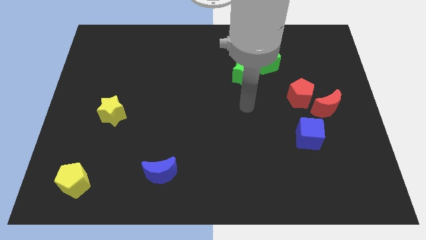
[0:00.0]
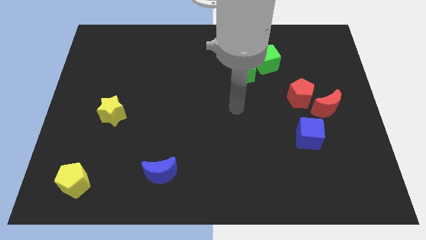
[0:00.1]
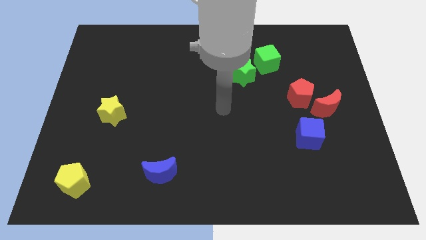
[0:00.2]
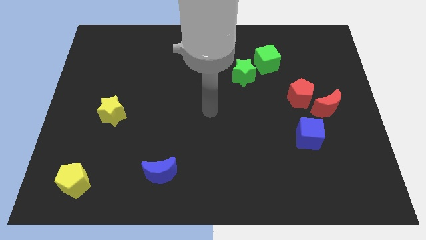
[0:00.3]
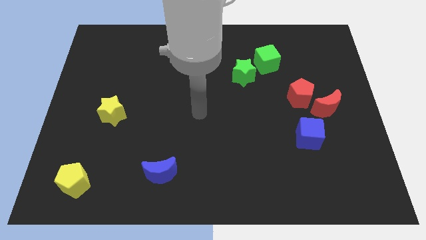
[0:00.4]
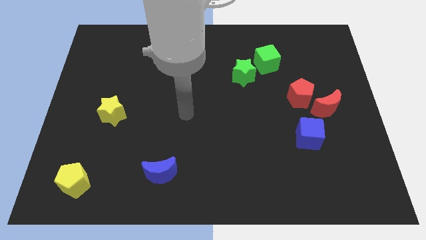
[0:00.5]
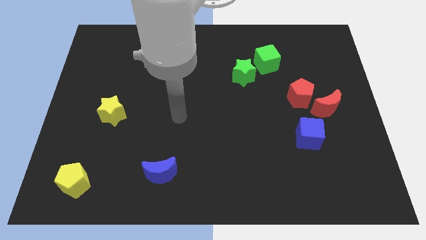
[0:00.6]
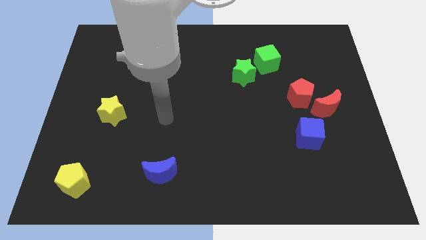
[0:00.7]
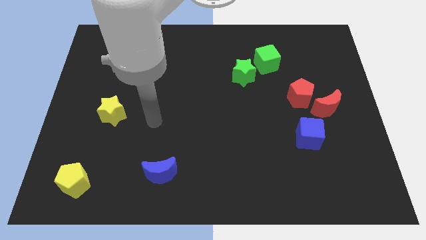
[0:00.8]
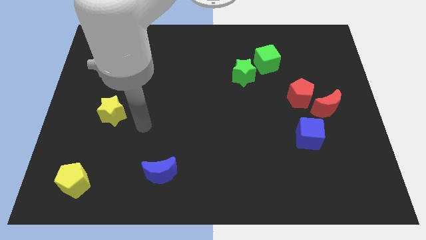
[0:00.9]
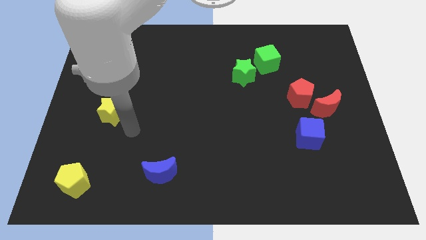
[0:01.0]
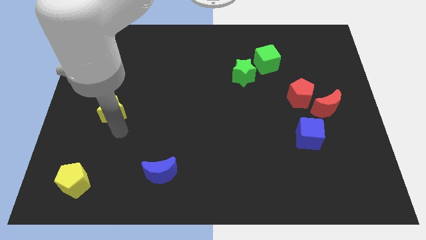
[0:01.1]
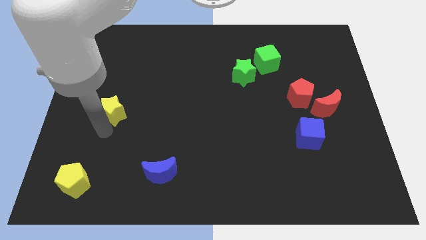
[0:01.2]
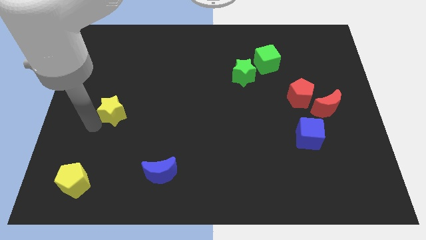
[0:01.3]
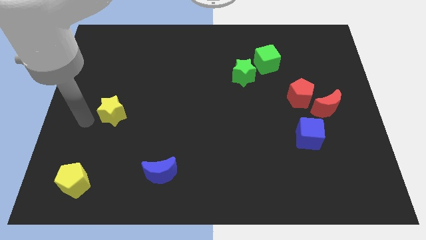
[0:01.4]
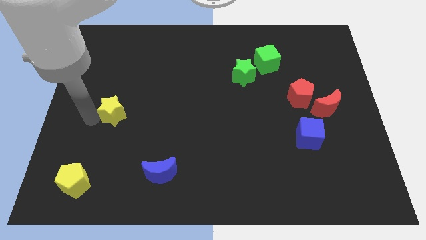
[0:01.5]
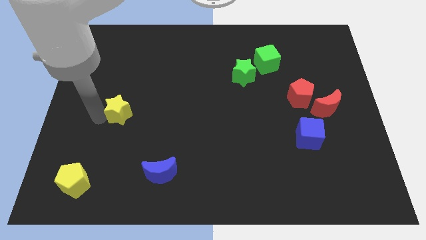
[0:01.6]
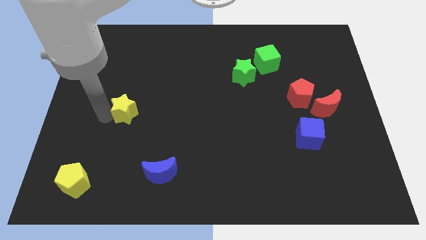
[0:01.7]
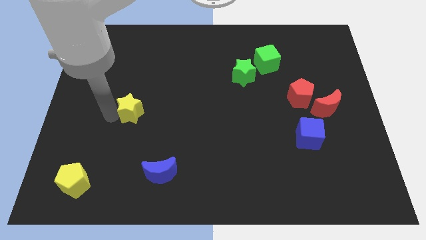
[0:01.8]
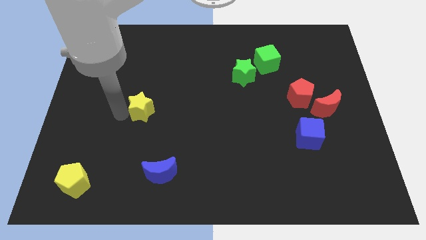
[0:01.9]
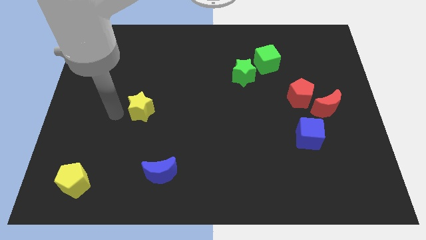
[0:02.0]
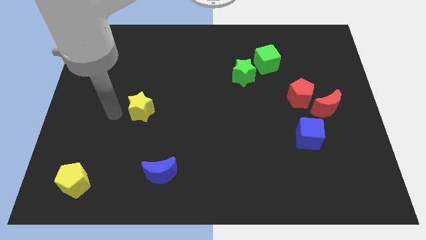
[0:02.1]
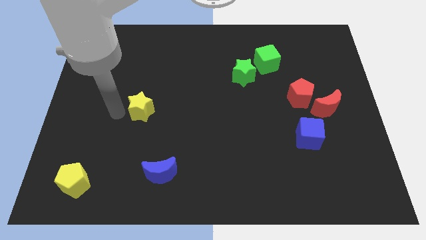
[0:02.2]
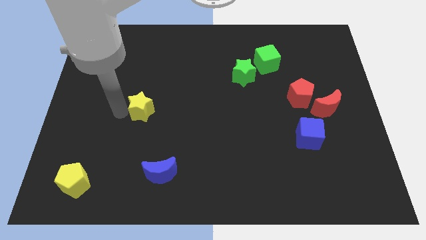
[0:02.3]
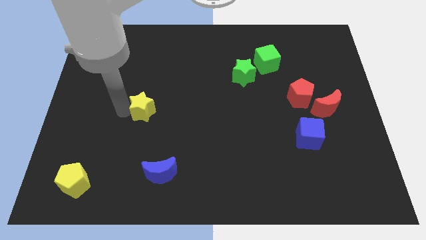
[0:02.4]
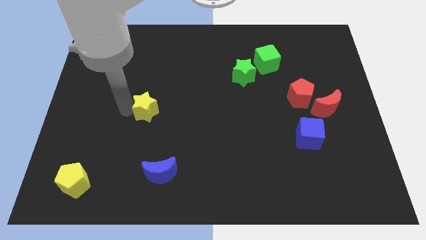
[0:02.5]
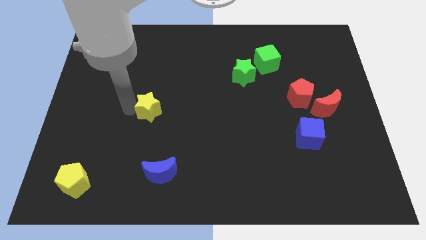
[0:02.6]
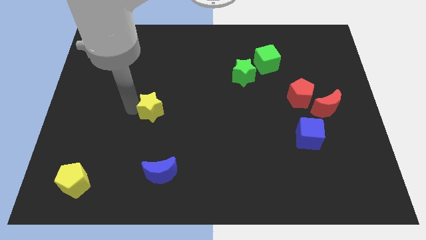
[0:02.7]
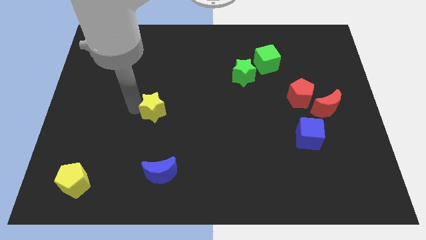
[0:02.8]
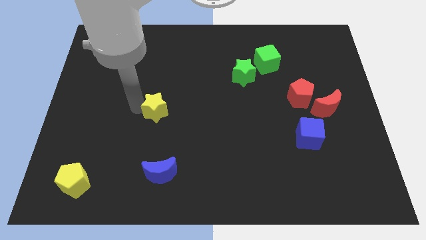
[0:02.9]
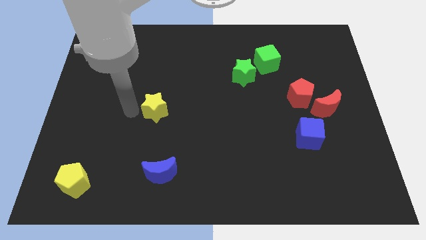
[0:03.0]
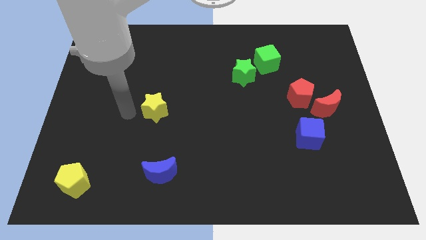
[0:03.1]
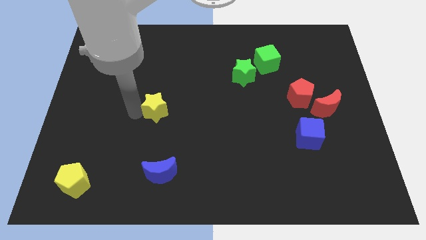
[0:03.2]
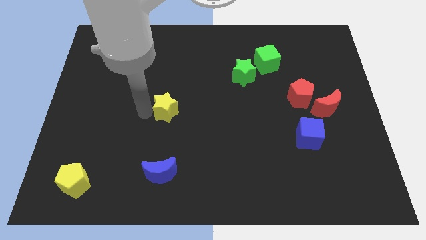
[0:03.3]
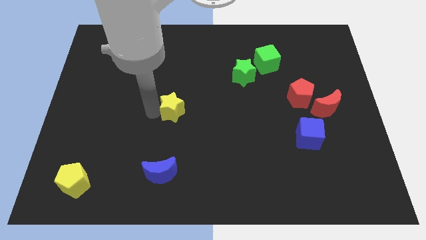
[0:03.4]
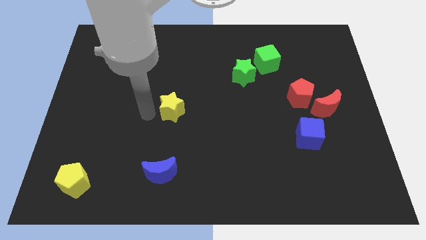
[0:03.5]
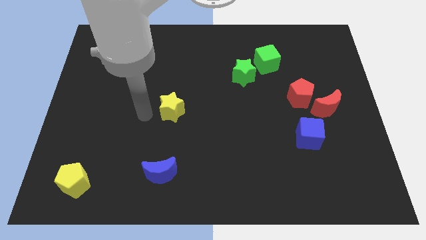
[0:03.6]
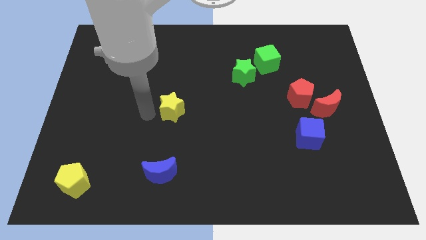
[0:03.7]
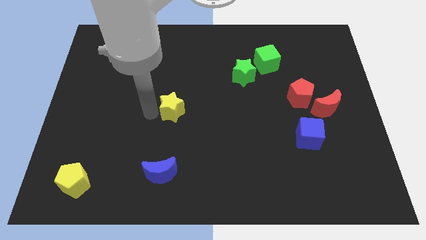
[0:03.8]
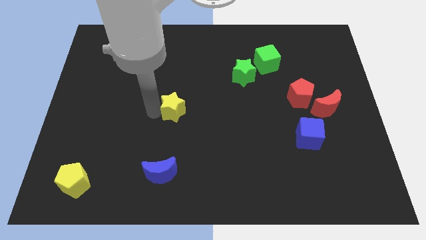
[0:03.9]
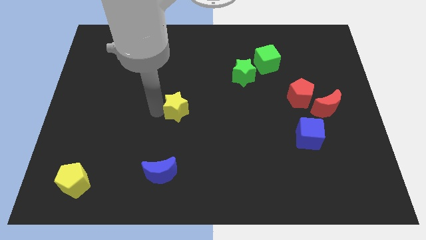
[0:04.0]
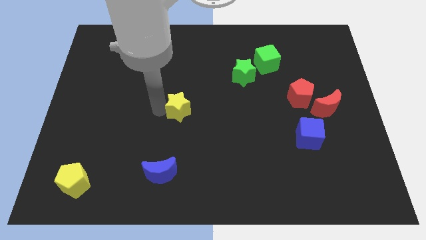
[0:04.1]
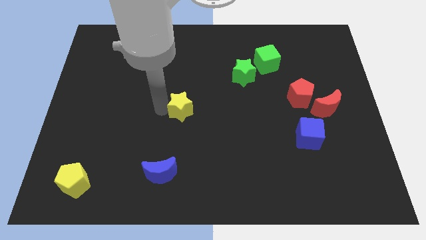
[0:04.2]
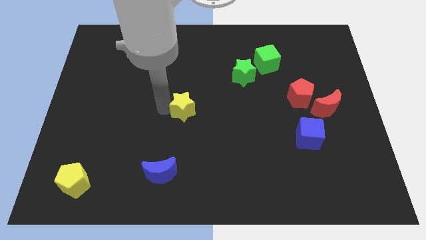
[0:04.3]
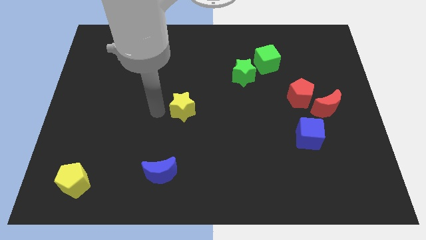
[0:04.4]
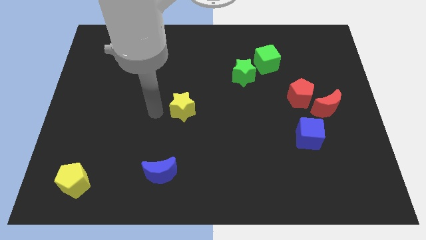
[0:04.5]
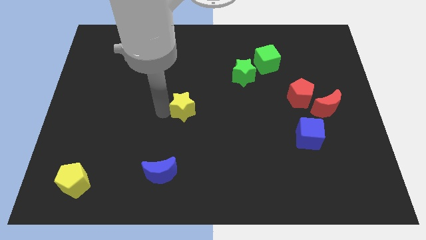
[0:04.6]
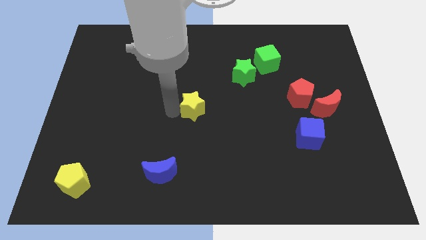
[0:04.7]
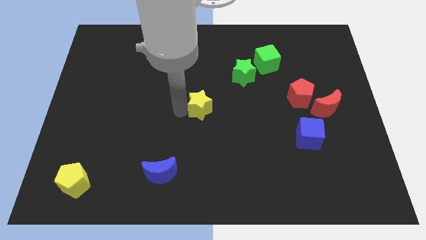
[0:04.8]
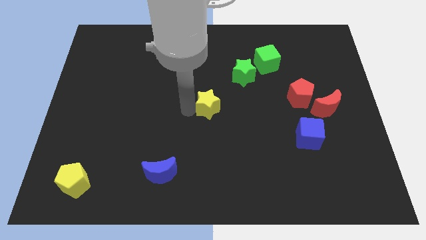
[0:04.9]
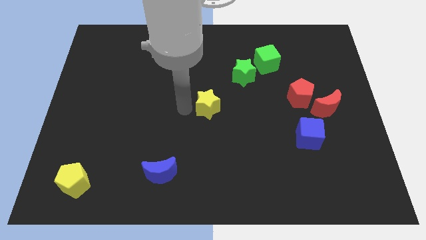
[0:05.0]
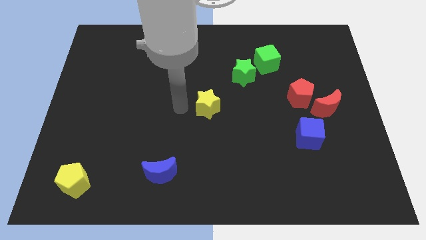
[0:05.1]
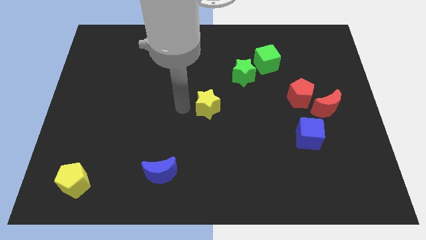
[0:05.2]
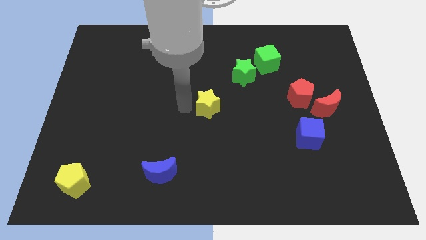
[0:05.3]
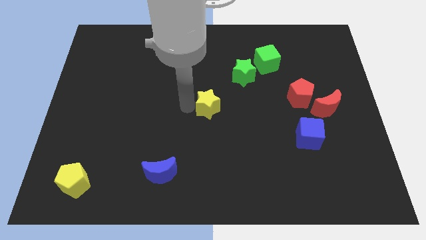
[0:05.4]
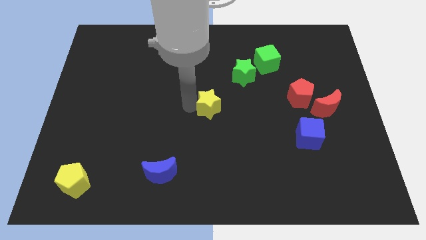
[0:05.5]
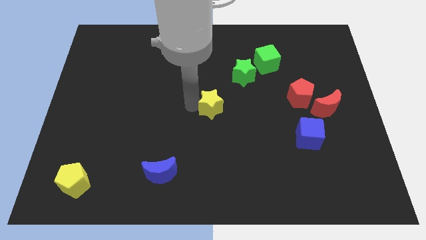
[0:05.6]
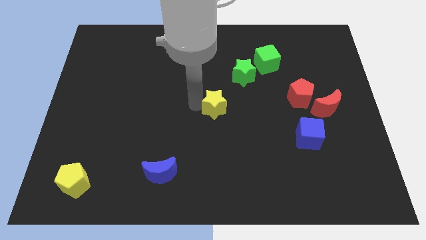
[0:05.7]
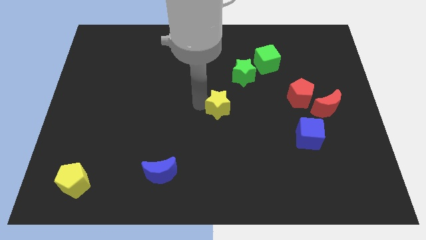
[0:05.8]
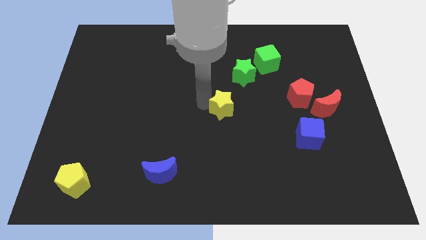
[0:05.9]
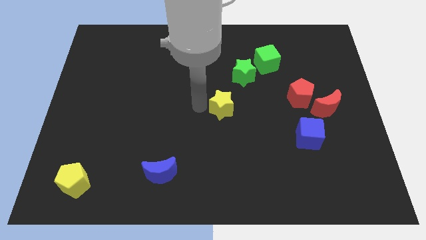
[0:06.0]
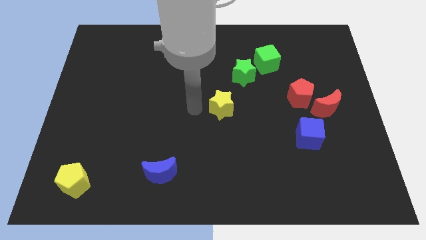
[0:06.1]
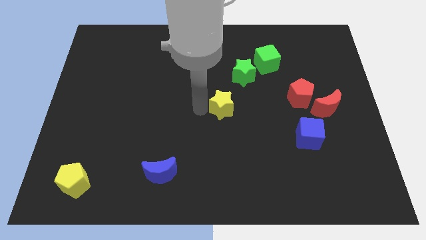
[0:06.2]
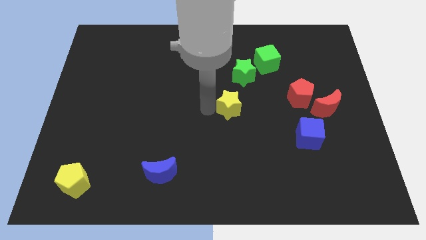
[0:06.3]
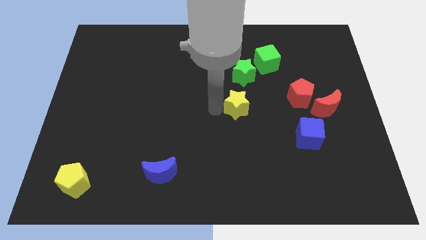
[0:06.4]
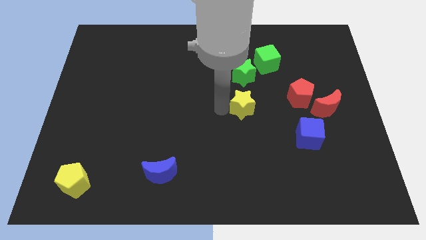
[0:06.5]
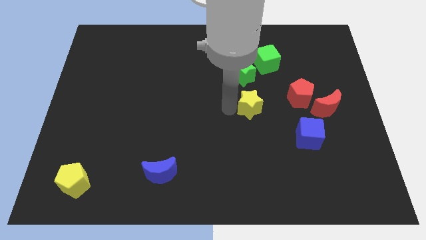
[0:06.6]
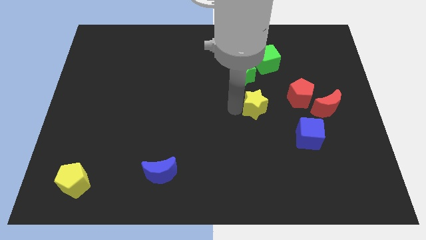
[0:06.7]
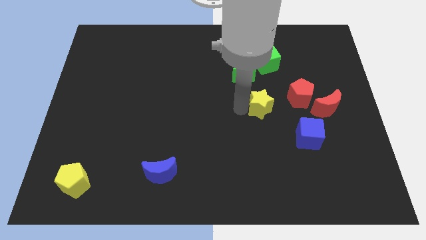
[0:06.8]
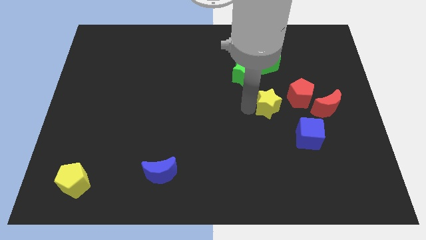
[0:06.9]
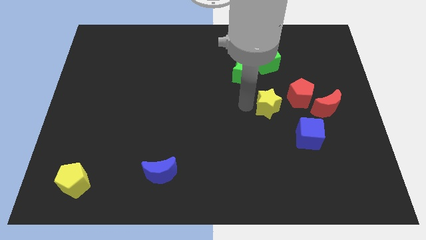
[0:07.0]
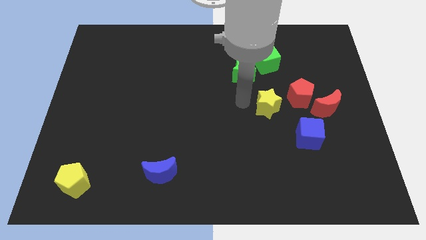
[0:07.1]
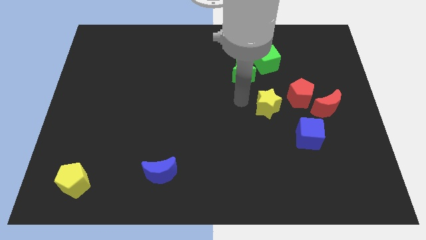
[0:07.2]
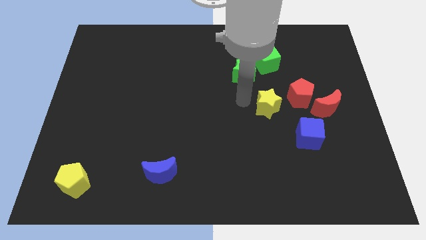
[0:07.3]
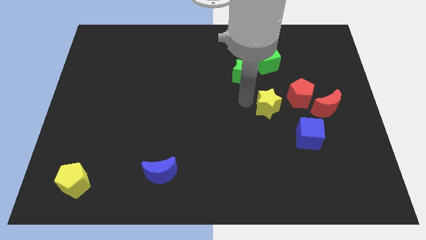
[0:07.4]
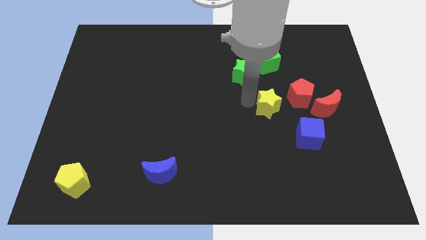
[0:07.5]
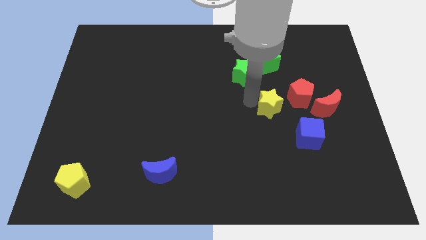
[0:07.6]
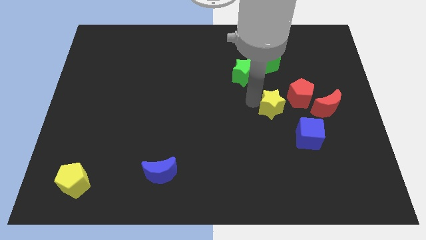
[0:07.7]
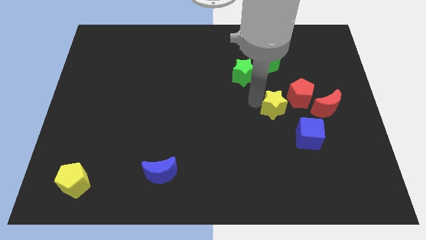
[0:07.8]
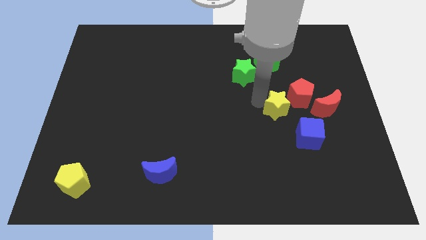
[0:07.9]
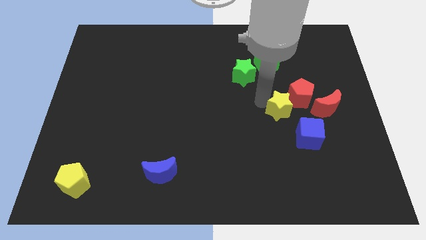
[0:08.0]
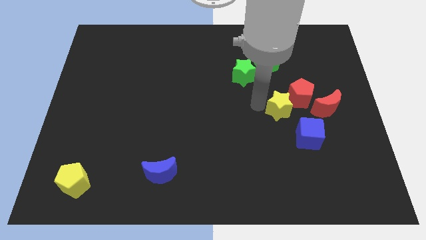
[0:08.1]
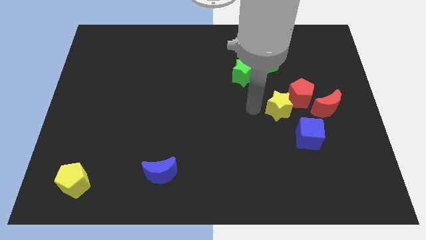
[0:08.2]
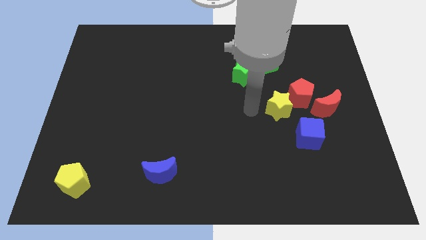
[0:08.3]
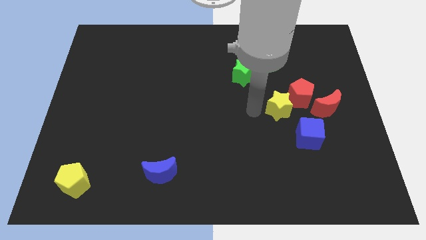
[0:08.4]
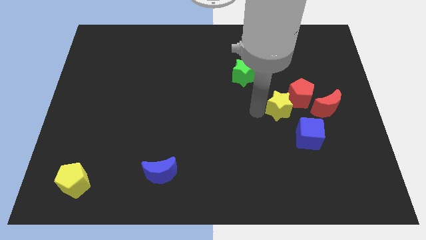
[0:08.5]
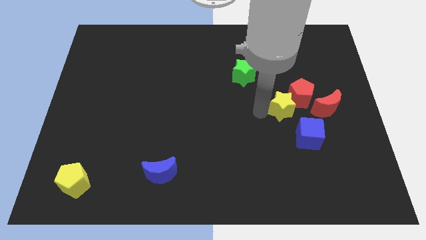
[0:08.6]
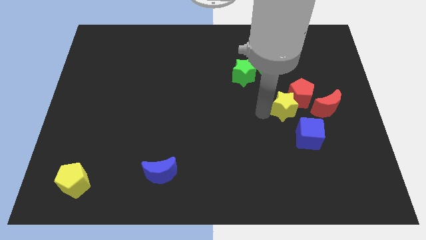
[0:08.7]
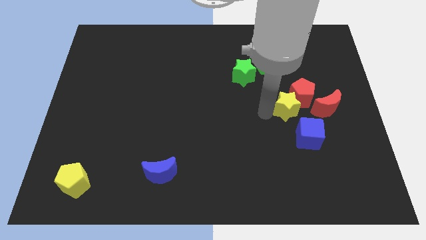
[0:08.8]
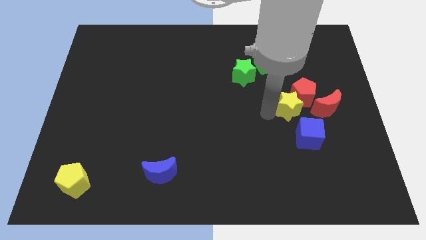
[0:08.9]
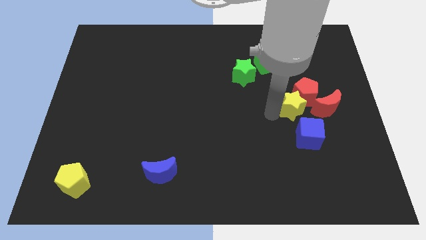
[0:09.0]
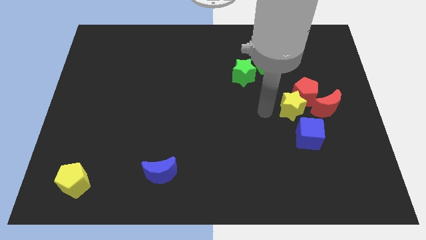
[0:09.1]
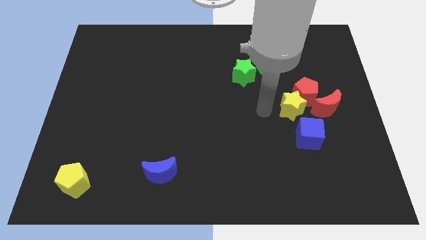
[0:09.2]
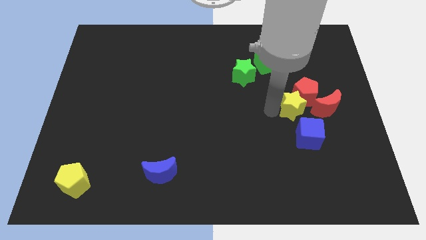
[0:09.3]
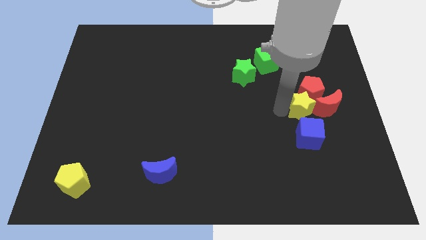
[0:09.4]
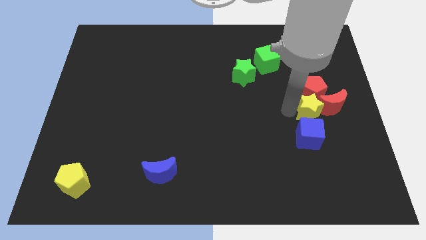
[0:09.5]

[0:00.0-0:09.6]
push the yellow star to the red moon
